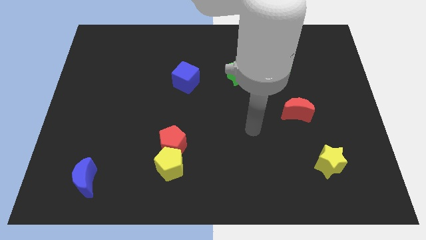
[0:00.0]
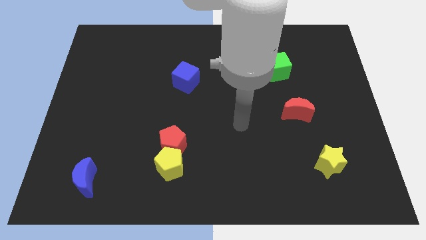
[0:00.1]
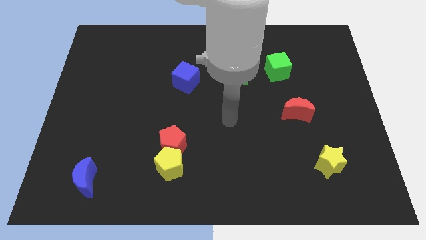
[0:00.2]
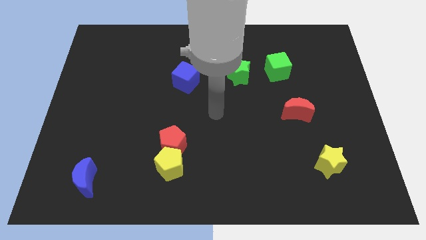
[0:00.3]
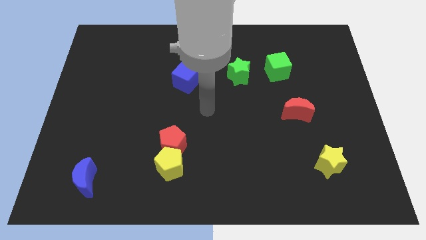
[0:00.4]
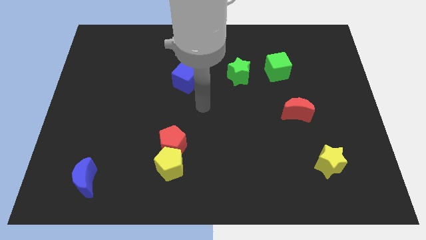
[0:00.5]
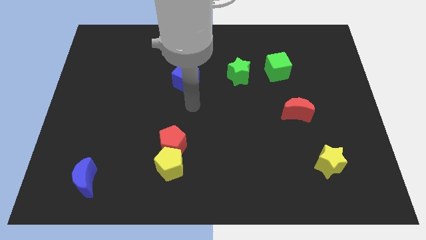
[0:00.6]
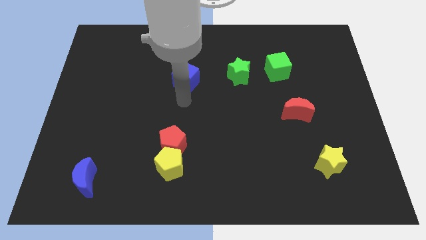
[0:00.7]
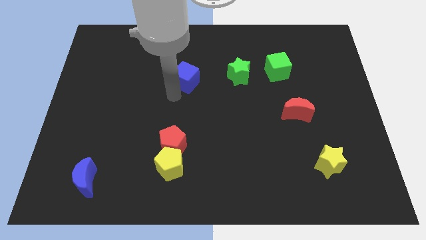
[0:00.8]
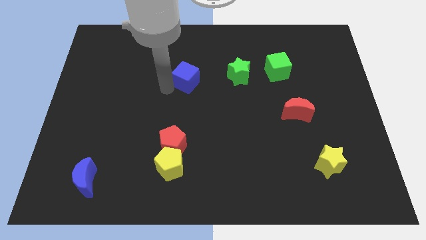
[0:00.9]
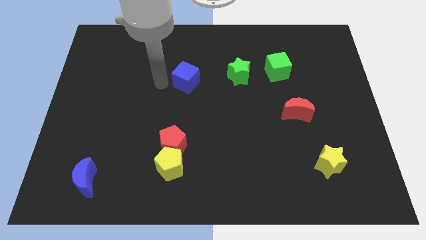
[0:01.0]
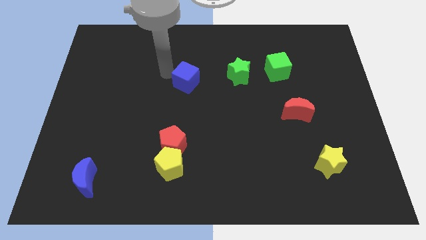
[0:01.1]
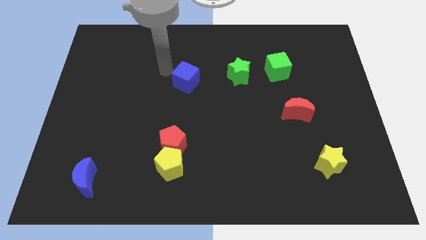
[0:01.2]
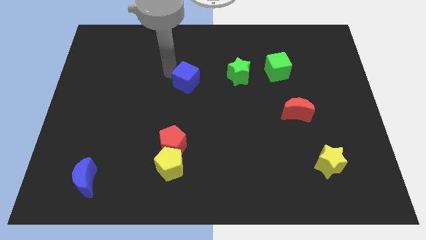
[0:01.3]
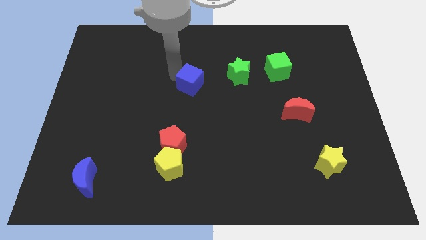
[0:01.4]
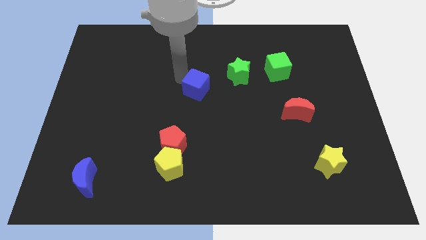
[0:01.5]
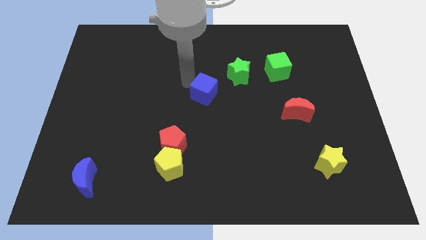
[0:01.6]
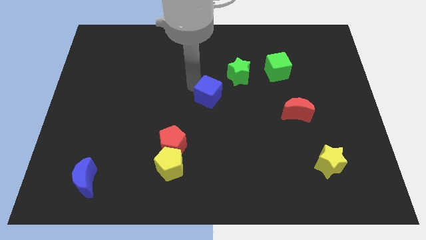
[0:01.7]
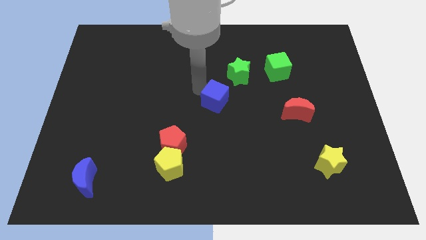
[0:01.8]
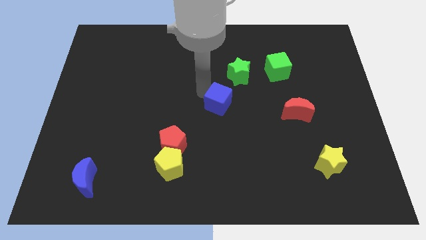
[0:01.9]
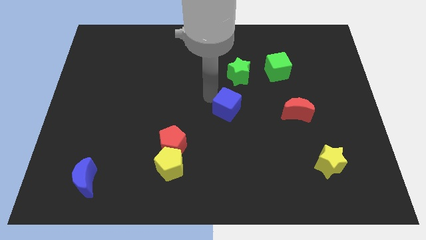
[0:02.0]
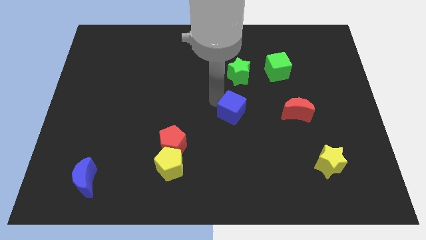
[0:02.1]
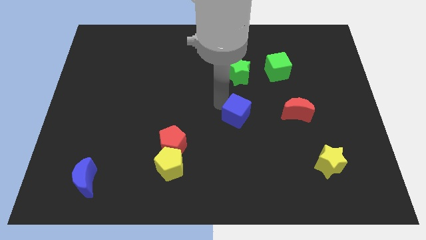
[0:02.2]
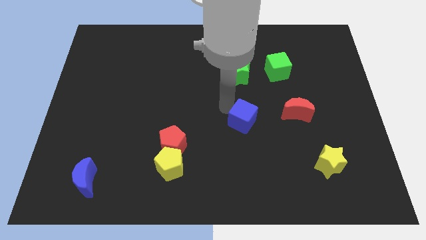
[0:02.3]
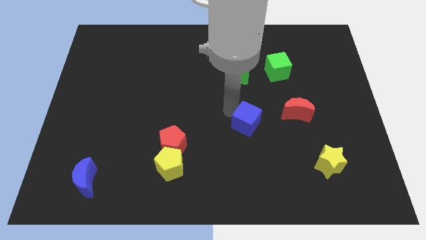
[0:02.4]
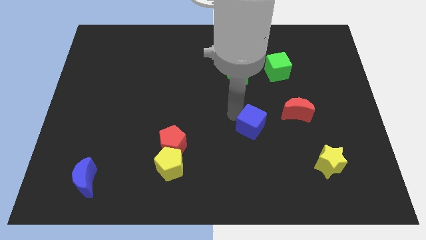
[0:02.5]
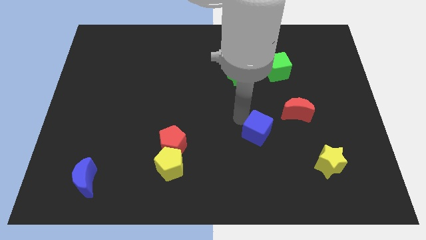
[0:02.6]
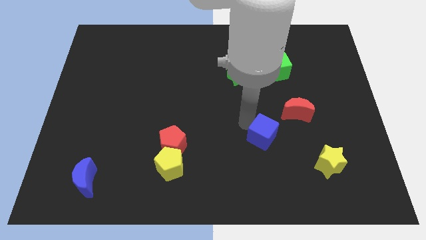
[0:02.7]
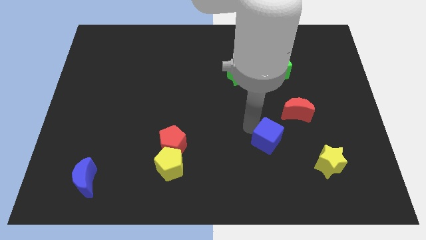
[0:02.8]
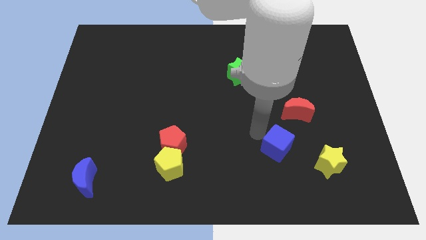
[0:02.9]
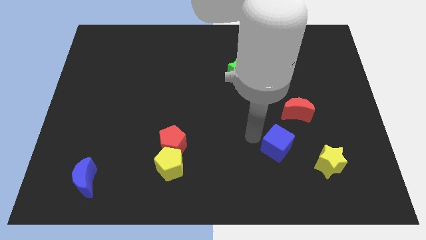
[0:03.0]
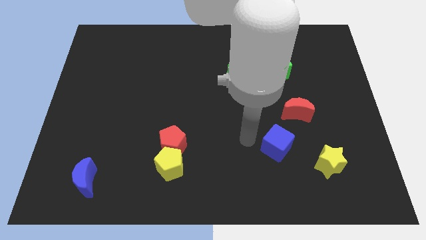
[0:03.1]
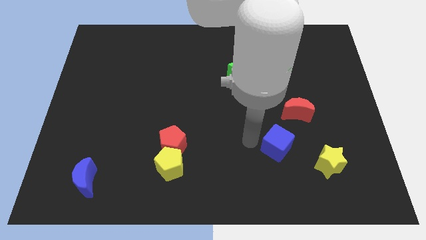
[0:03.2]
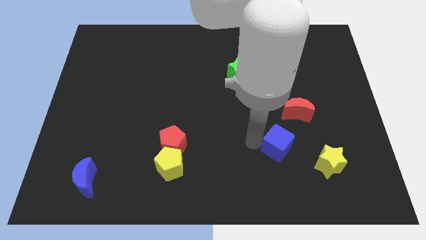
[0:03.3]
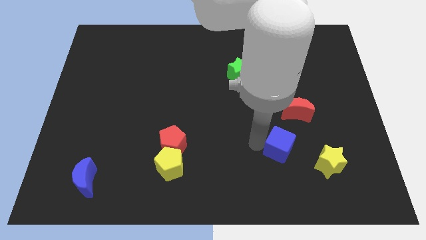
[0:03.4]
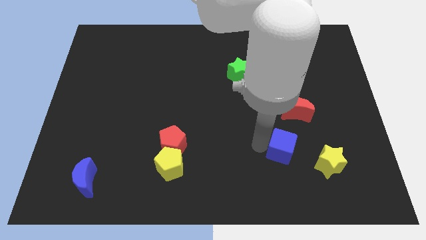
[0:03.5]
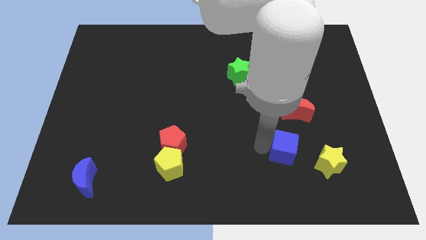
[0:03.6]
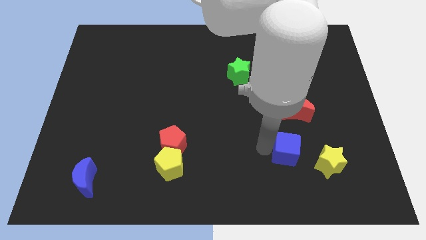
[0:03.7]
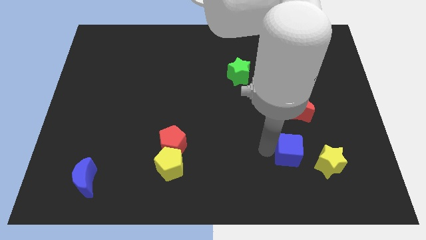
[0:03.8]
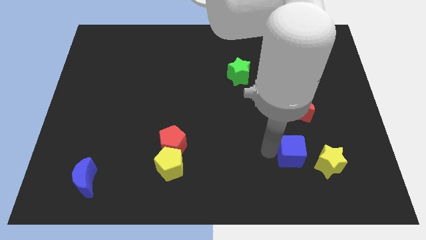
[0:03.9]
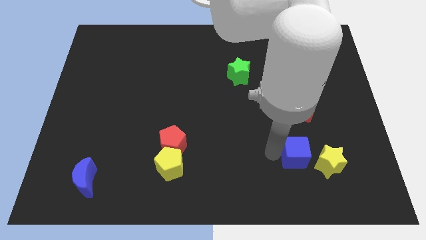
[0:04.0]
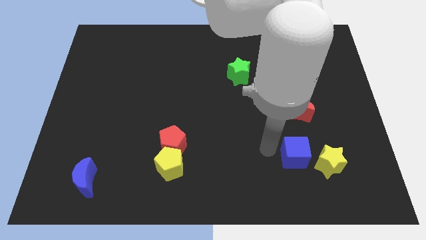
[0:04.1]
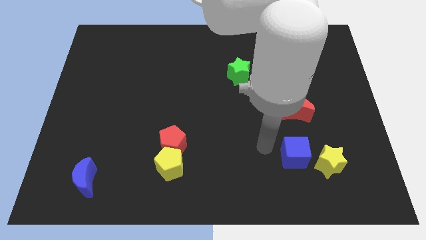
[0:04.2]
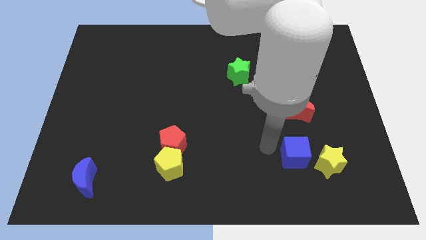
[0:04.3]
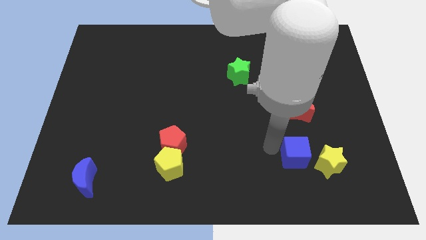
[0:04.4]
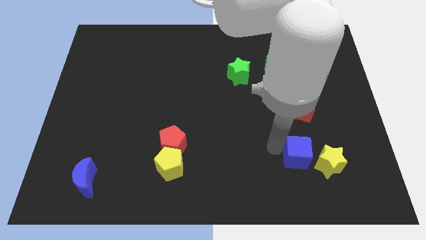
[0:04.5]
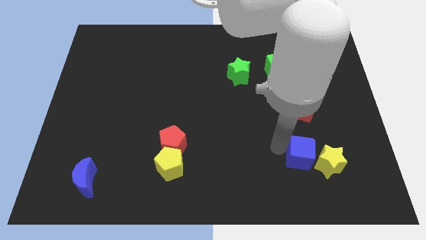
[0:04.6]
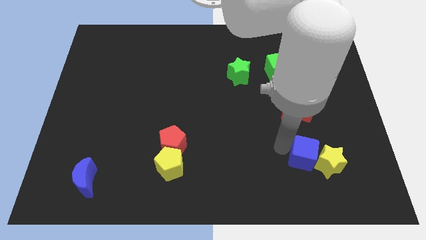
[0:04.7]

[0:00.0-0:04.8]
put the blue cube towards the yellow star

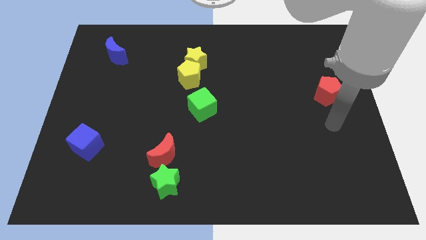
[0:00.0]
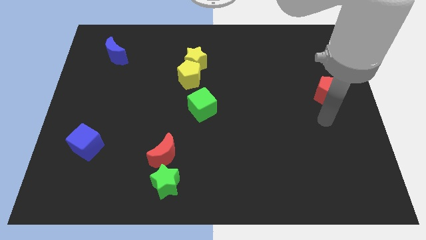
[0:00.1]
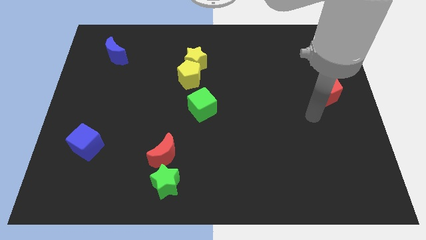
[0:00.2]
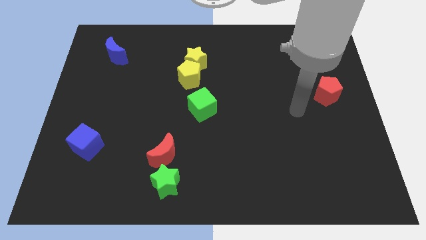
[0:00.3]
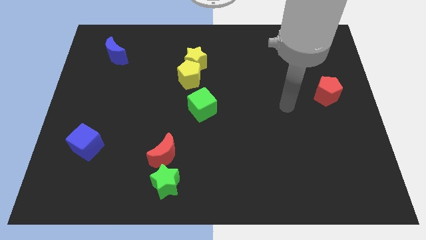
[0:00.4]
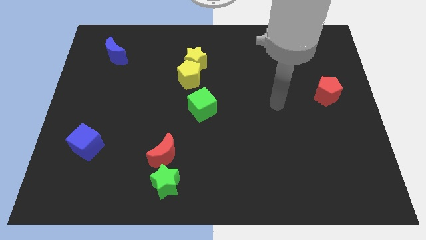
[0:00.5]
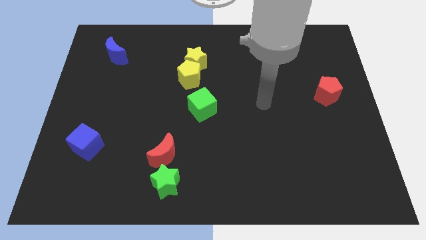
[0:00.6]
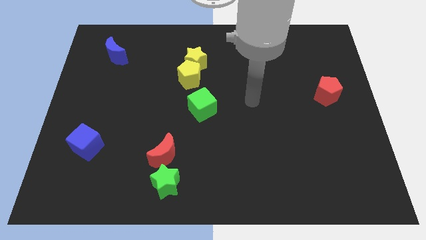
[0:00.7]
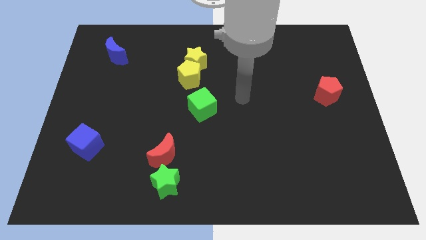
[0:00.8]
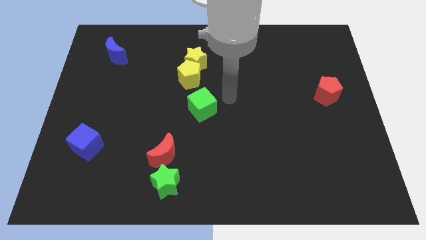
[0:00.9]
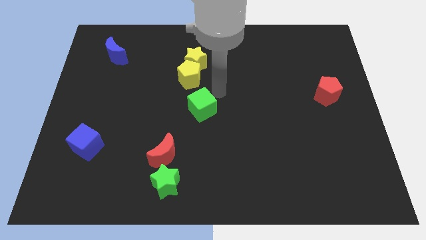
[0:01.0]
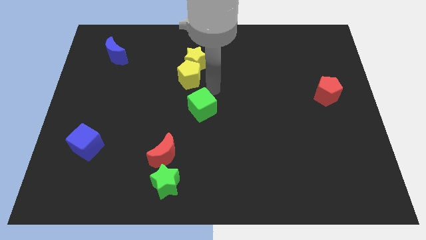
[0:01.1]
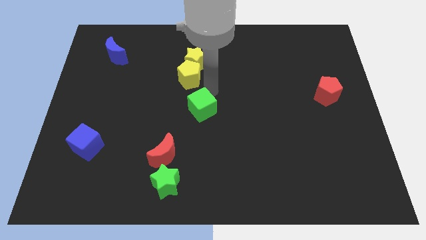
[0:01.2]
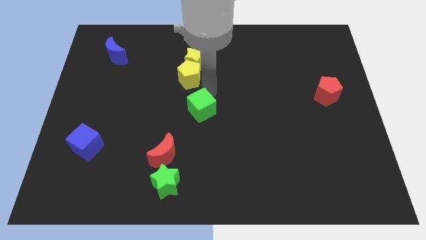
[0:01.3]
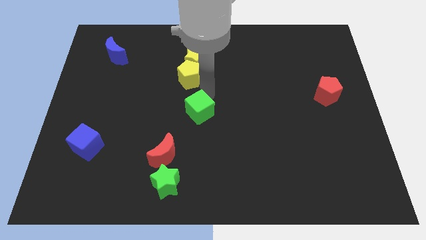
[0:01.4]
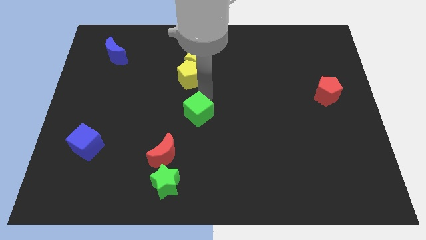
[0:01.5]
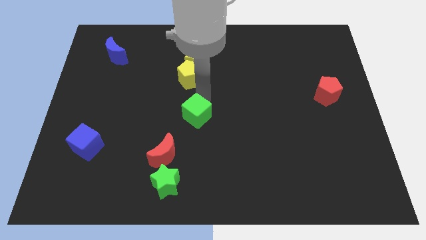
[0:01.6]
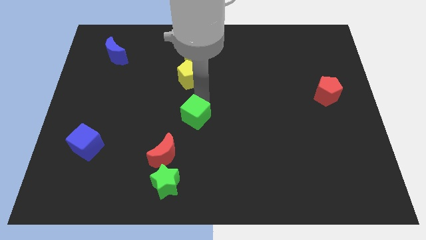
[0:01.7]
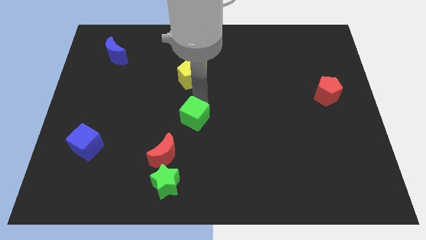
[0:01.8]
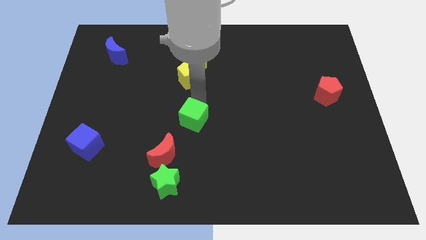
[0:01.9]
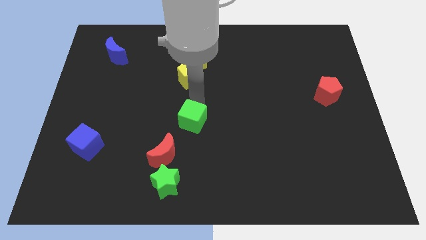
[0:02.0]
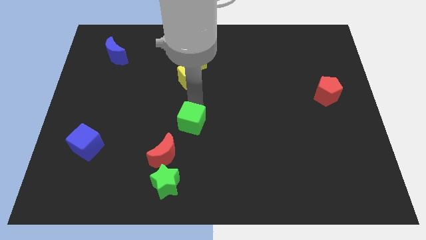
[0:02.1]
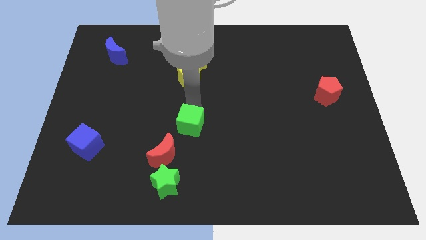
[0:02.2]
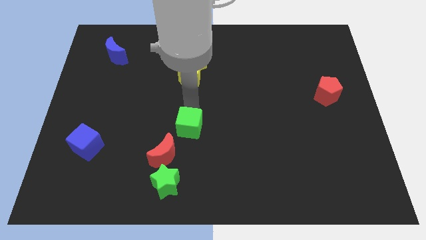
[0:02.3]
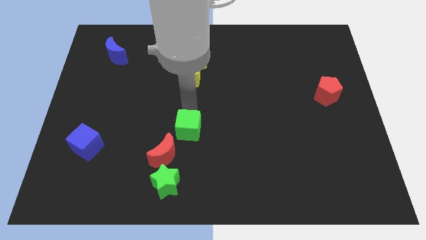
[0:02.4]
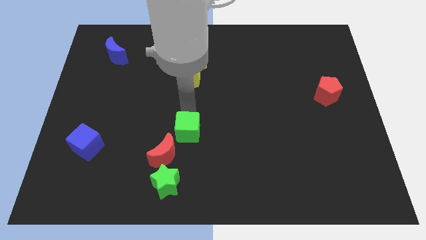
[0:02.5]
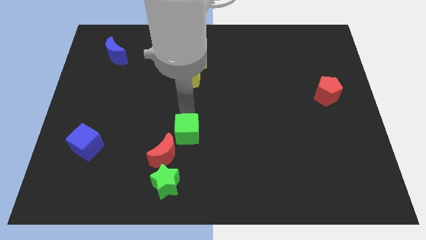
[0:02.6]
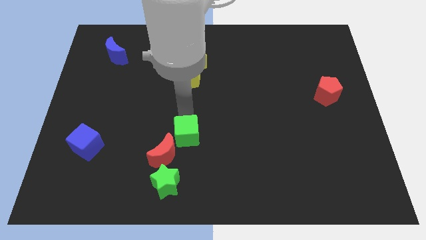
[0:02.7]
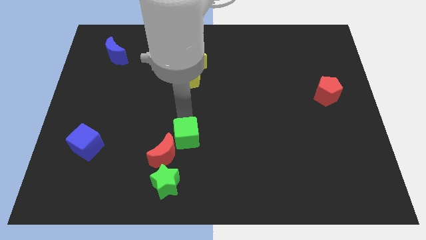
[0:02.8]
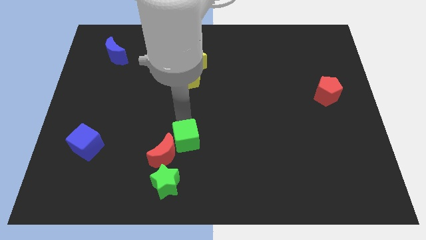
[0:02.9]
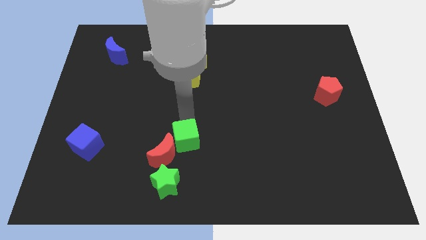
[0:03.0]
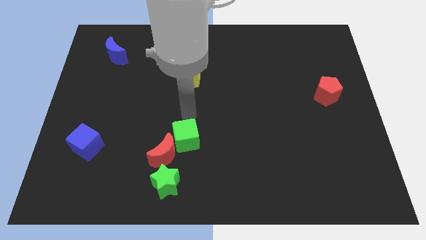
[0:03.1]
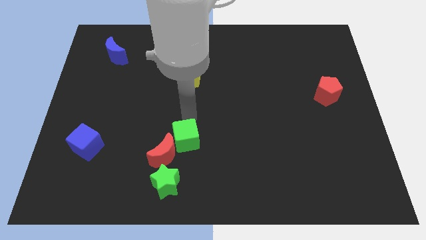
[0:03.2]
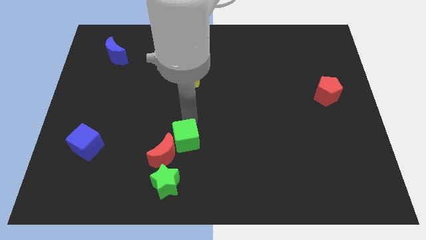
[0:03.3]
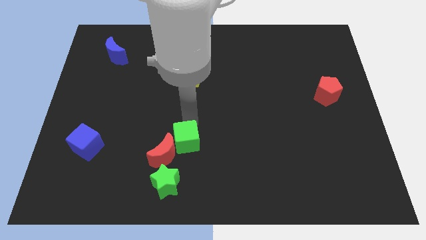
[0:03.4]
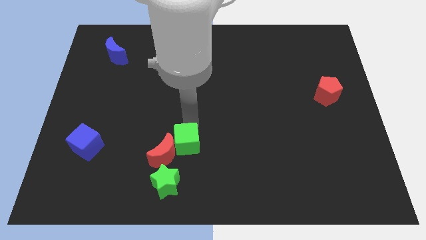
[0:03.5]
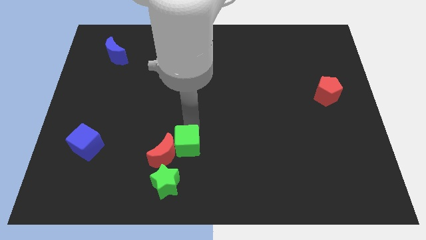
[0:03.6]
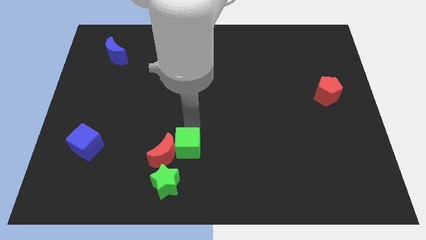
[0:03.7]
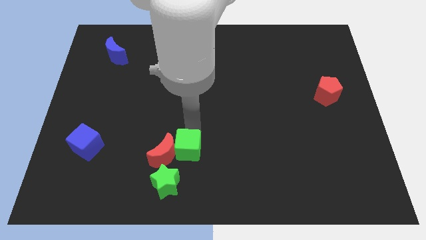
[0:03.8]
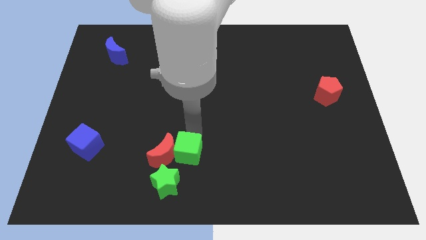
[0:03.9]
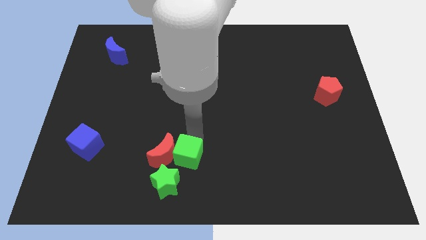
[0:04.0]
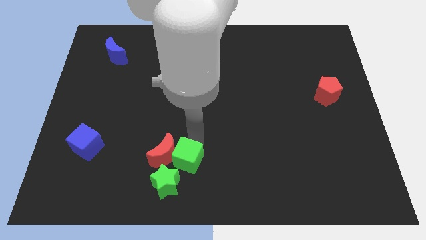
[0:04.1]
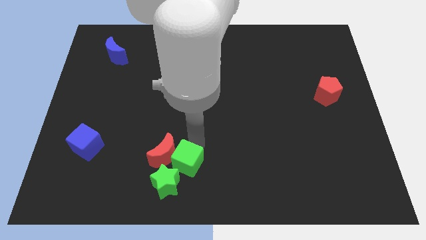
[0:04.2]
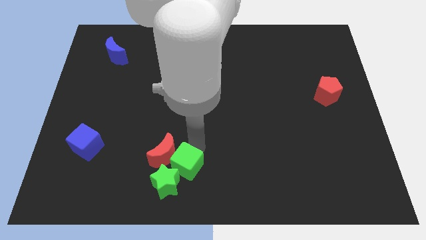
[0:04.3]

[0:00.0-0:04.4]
push the green cube next to the green star
